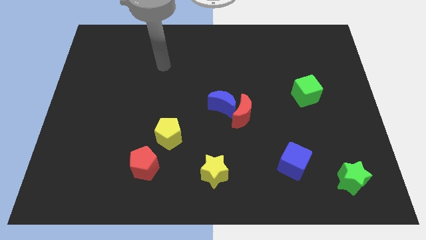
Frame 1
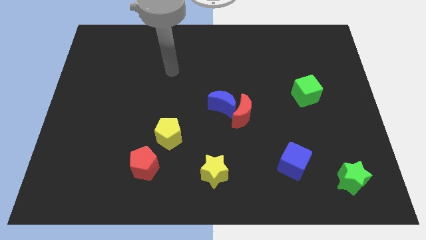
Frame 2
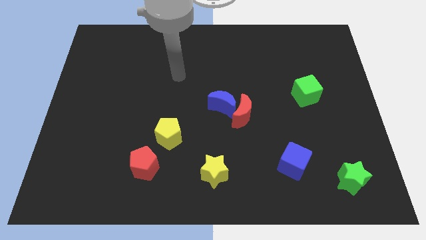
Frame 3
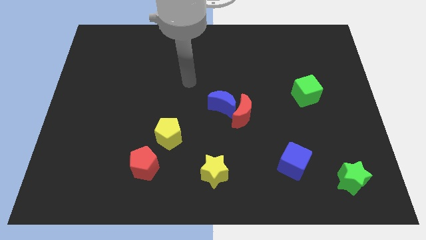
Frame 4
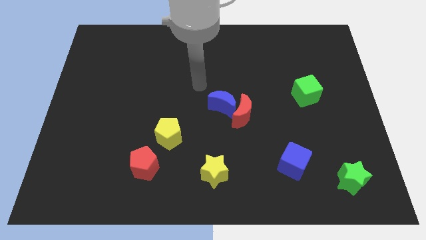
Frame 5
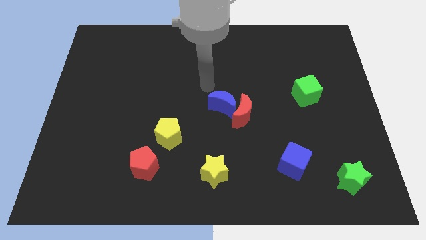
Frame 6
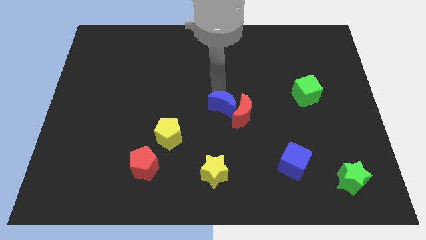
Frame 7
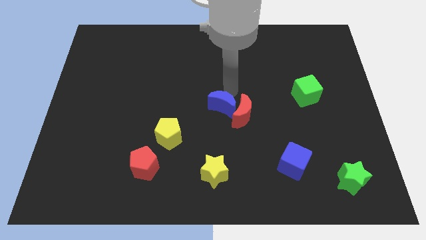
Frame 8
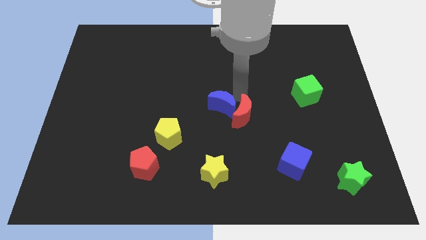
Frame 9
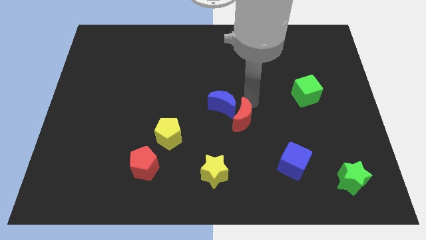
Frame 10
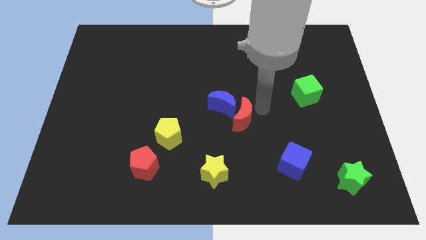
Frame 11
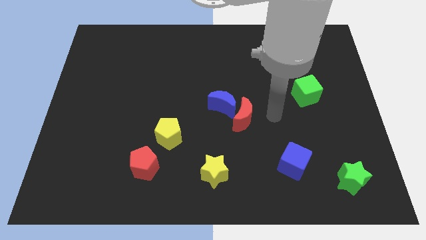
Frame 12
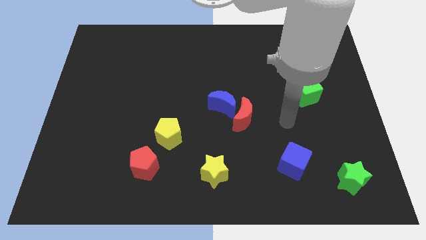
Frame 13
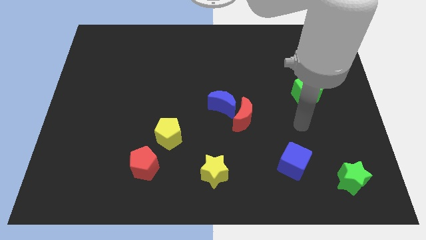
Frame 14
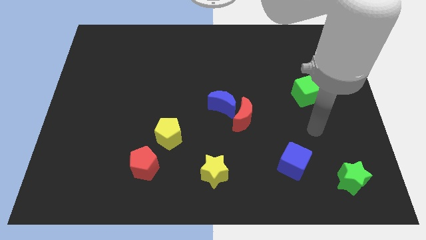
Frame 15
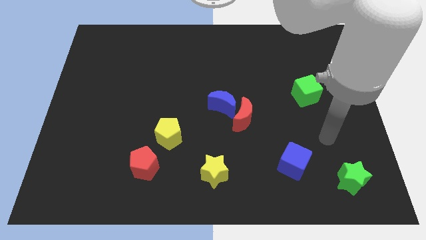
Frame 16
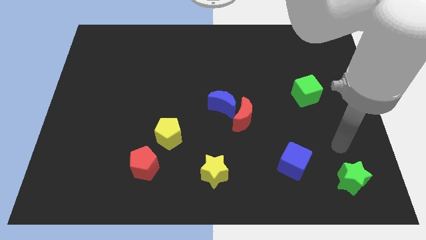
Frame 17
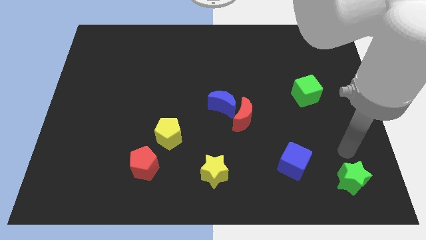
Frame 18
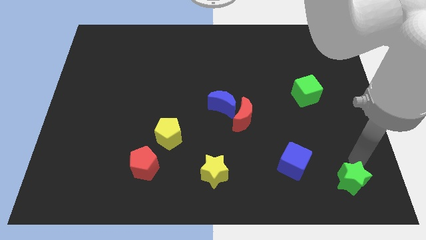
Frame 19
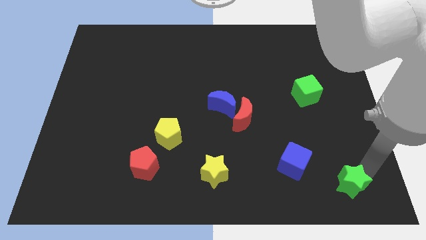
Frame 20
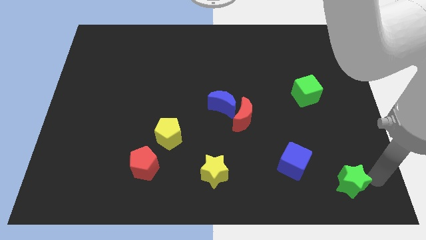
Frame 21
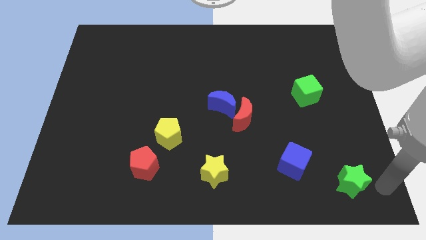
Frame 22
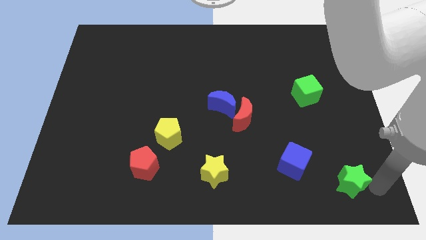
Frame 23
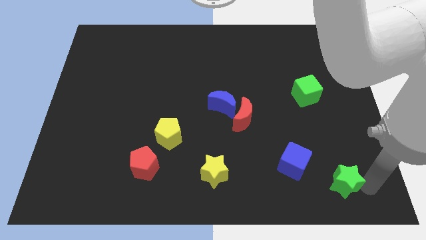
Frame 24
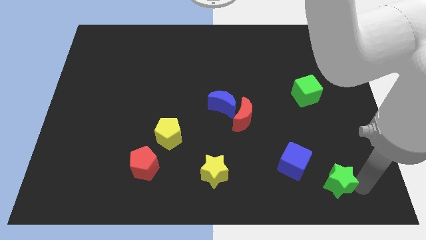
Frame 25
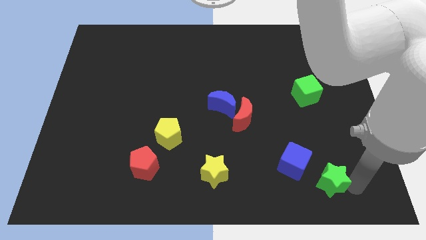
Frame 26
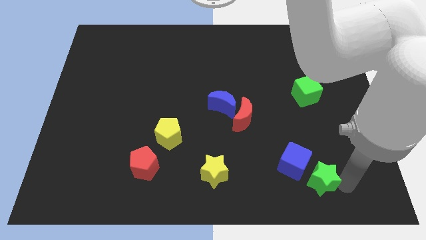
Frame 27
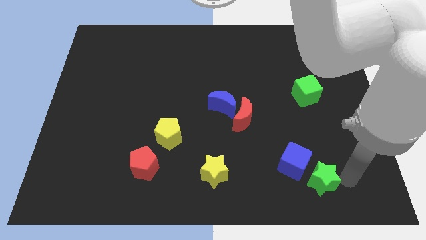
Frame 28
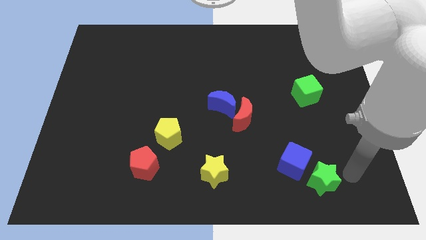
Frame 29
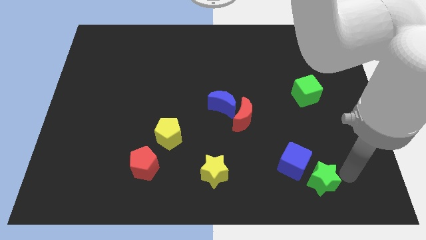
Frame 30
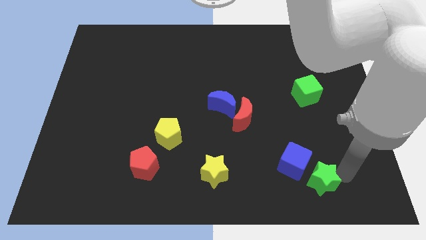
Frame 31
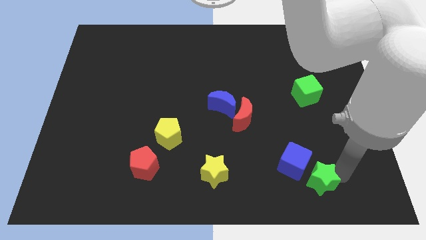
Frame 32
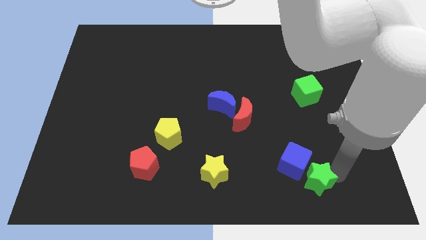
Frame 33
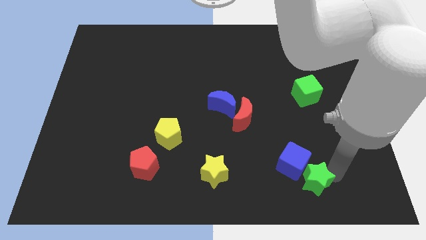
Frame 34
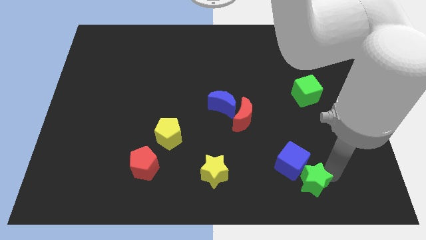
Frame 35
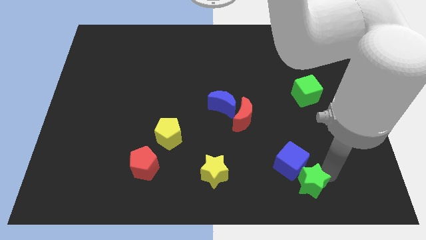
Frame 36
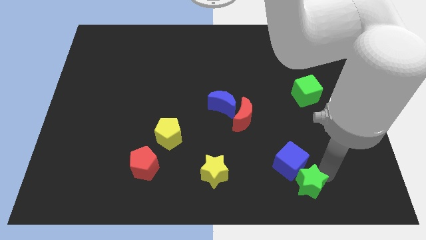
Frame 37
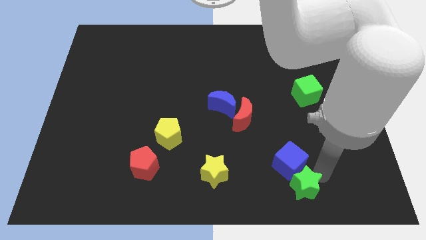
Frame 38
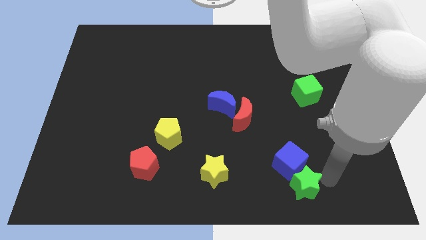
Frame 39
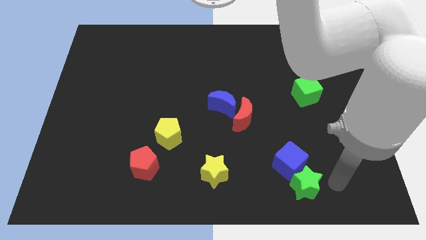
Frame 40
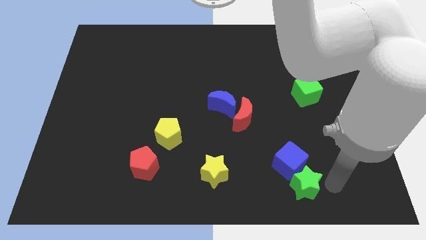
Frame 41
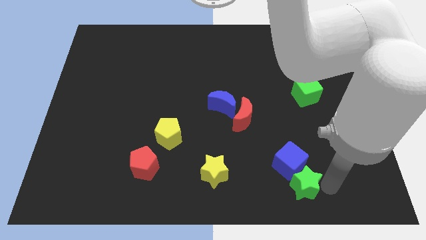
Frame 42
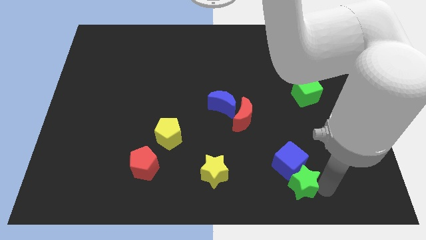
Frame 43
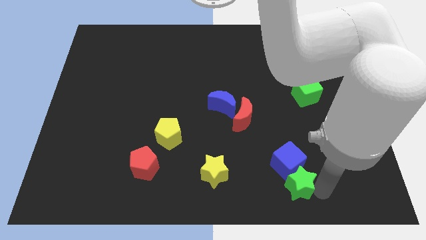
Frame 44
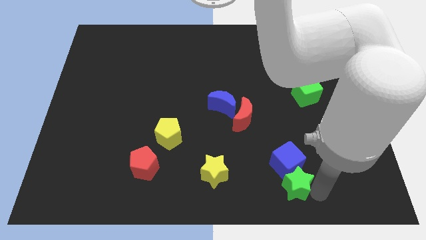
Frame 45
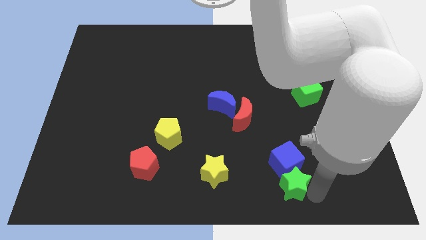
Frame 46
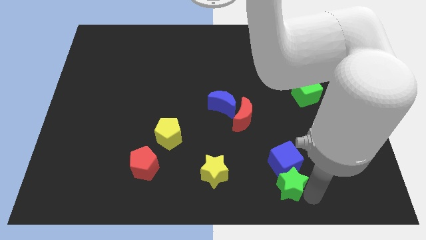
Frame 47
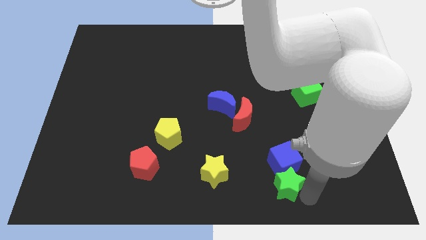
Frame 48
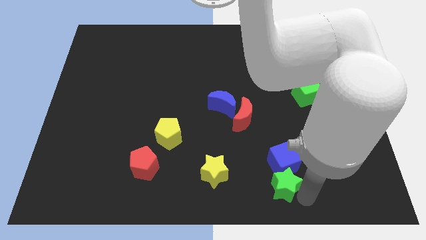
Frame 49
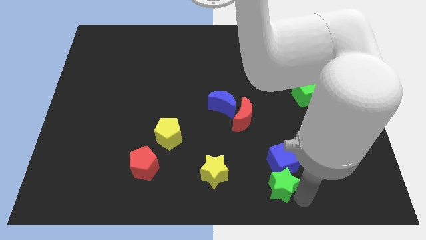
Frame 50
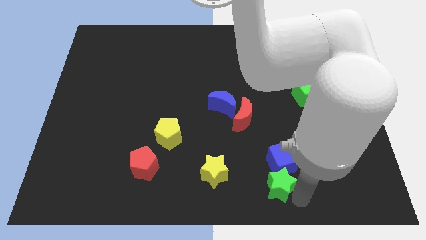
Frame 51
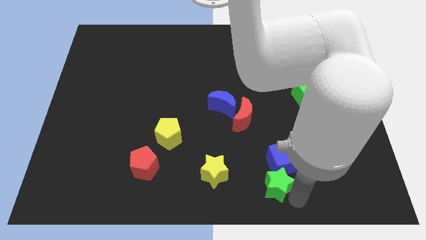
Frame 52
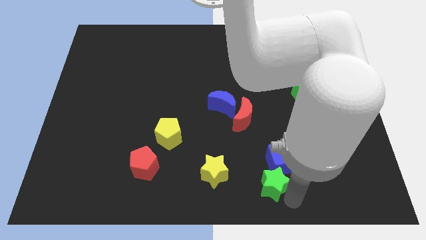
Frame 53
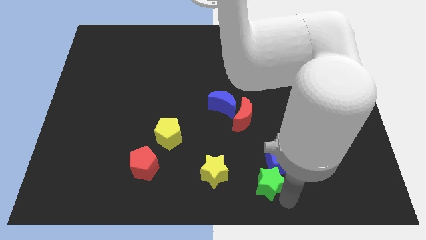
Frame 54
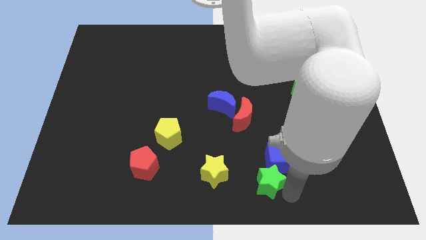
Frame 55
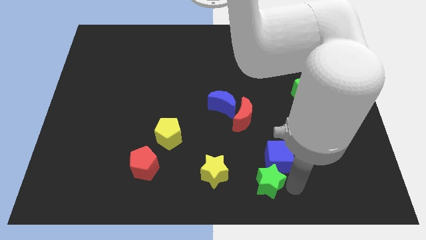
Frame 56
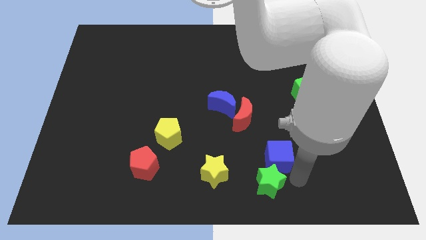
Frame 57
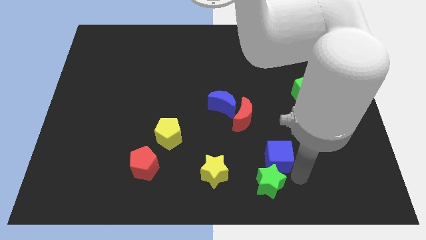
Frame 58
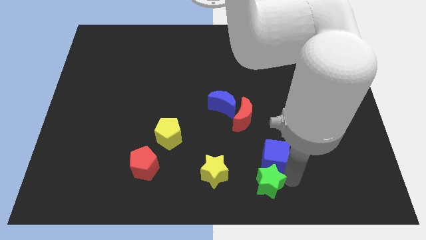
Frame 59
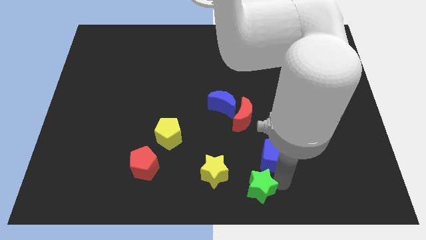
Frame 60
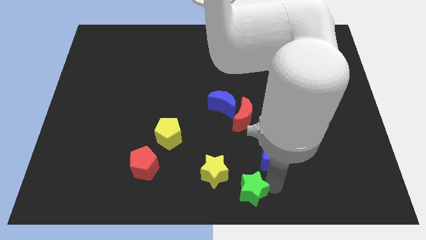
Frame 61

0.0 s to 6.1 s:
move the green star to the left

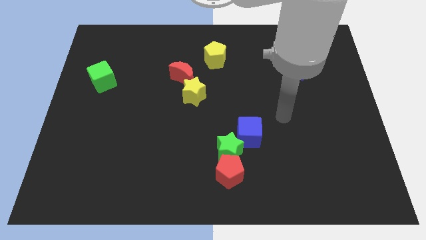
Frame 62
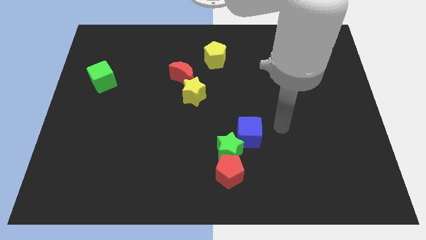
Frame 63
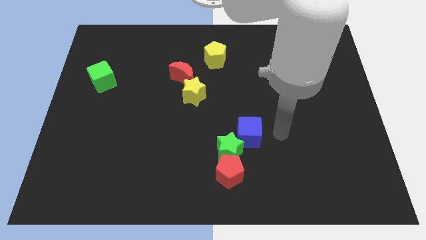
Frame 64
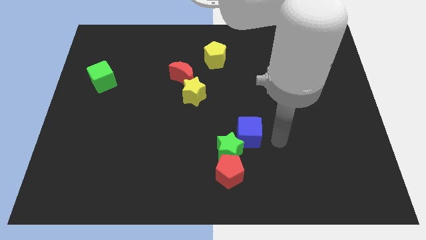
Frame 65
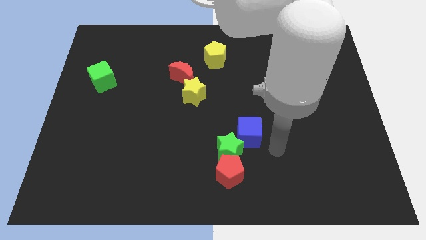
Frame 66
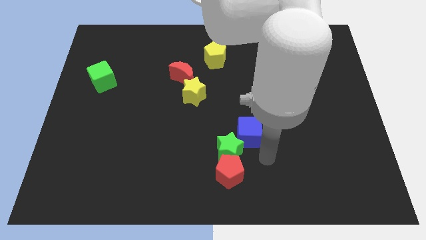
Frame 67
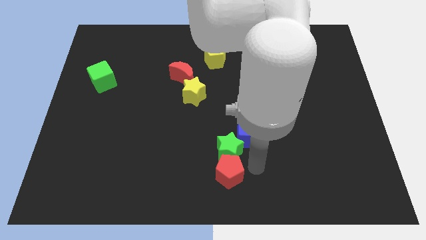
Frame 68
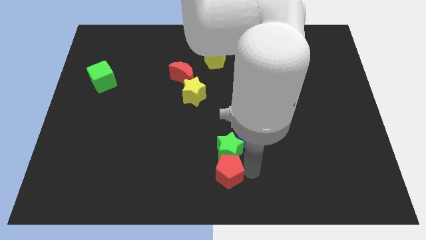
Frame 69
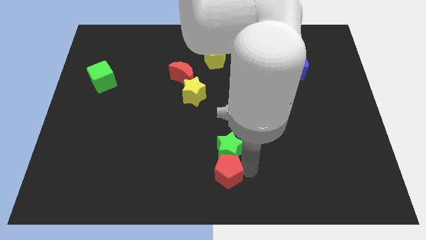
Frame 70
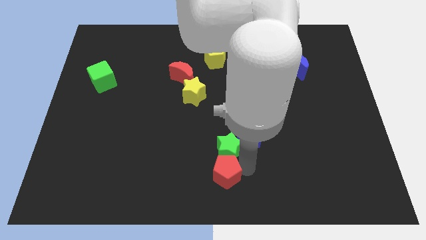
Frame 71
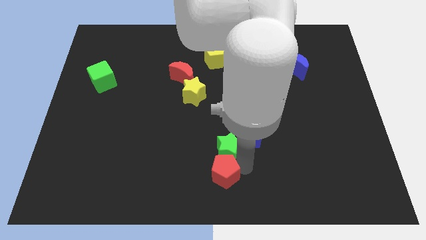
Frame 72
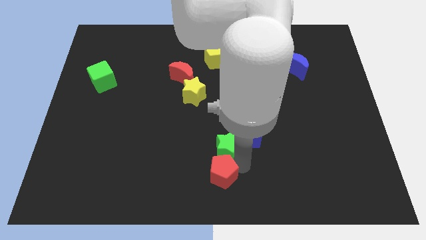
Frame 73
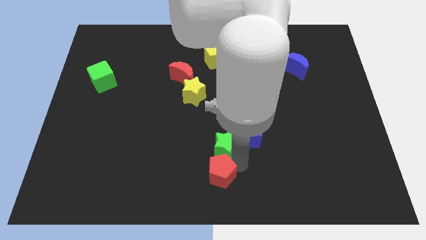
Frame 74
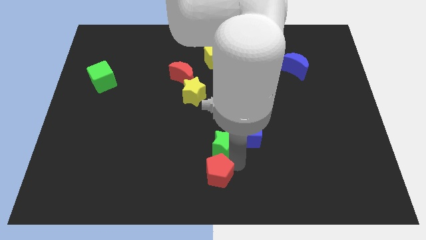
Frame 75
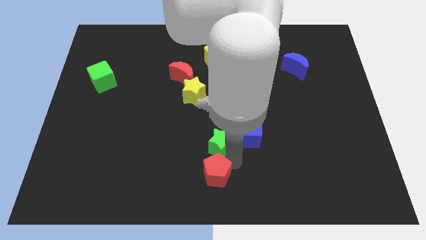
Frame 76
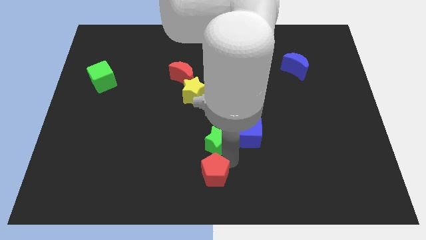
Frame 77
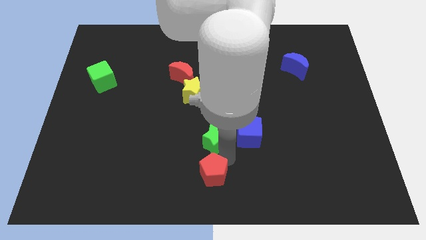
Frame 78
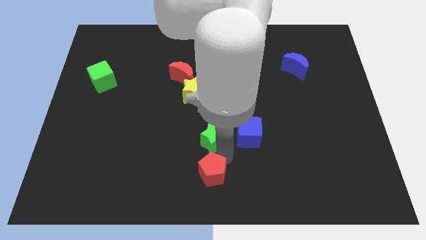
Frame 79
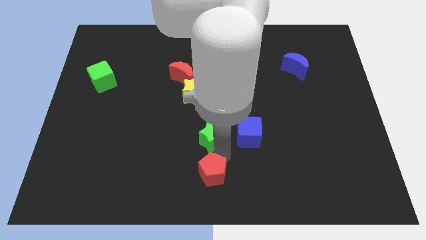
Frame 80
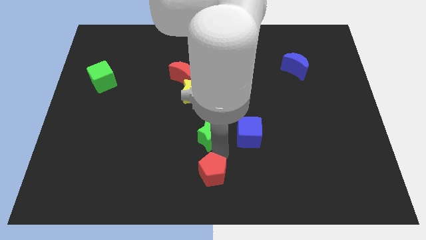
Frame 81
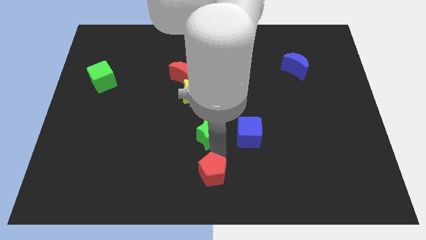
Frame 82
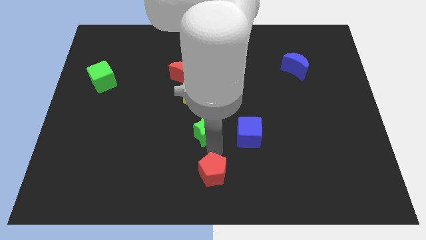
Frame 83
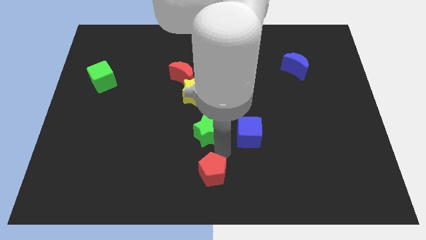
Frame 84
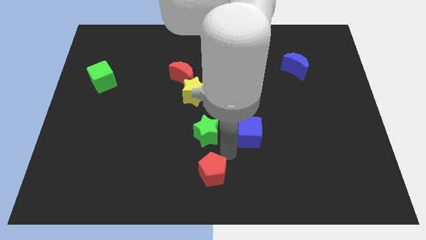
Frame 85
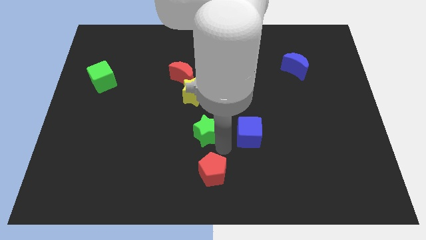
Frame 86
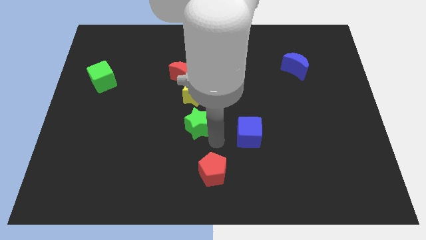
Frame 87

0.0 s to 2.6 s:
slide the green star upwards and to the left somewhat
